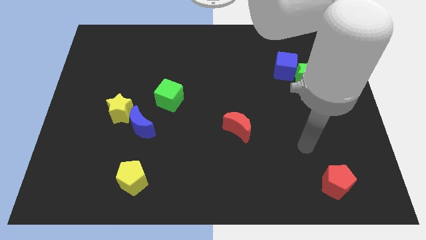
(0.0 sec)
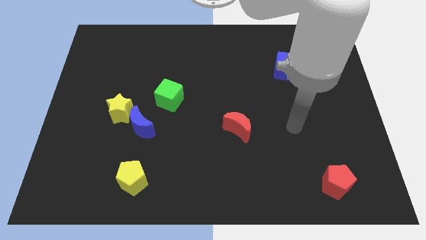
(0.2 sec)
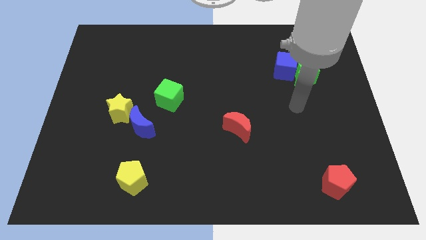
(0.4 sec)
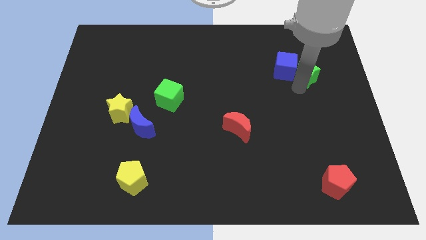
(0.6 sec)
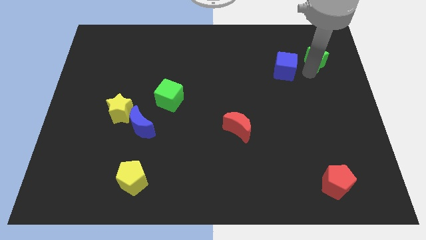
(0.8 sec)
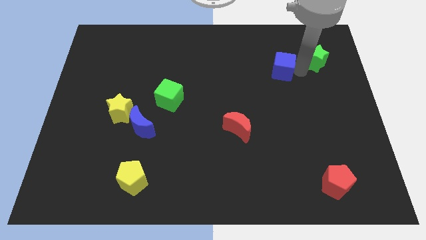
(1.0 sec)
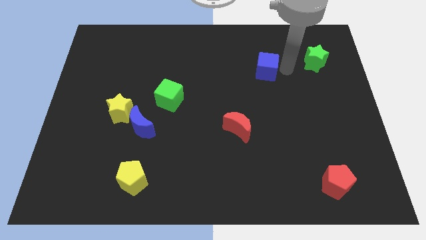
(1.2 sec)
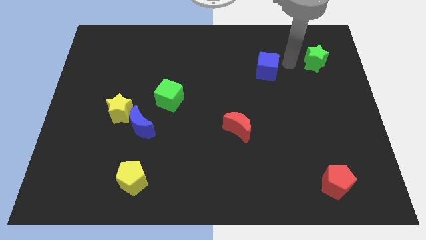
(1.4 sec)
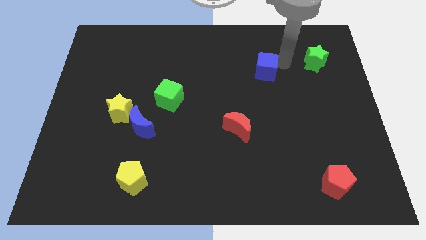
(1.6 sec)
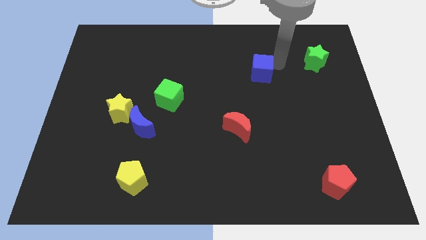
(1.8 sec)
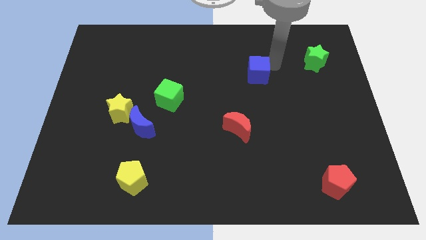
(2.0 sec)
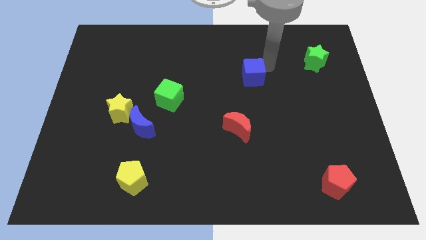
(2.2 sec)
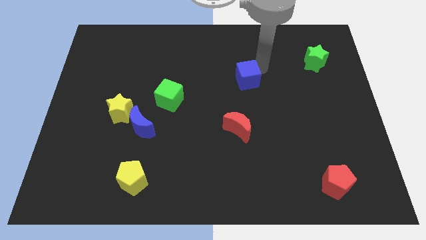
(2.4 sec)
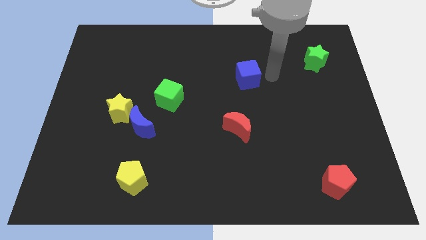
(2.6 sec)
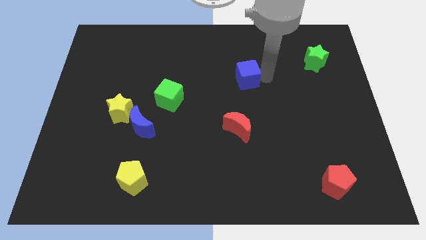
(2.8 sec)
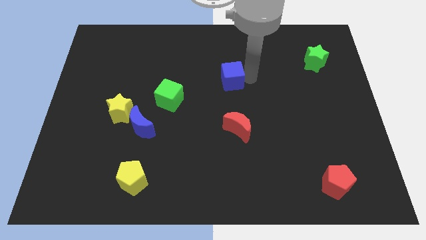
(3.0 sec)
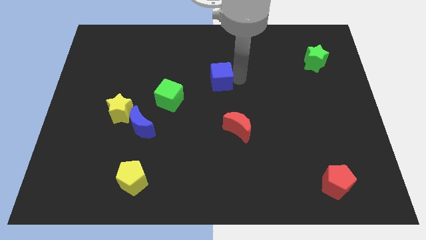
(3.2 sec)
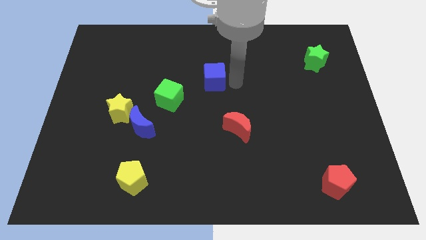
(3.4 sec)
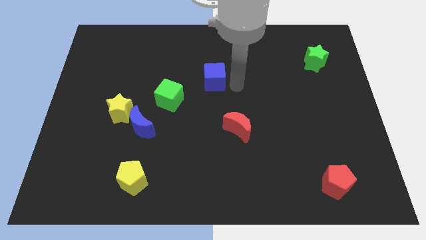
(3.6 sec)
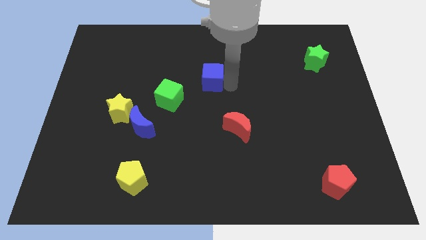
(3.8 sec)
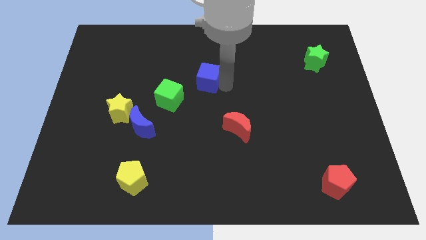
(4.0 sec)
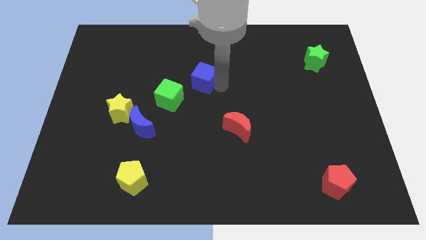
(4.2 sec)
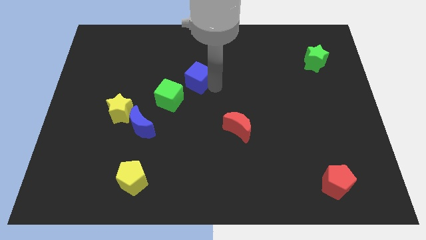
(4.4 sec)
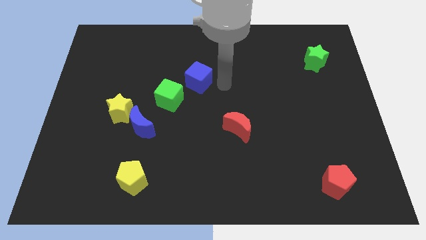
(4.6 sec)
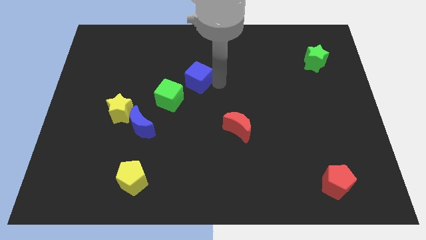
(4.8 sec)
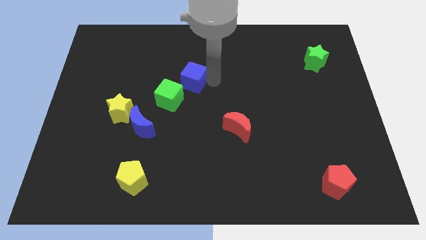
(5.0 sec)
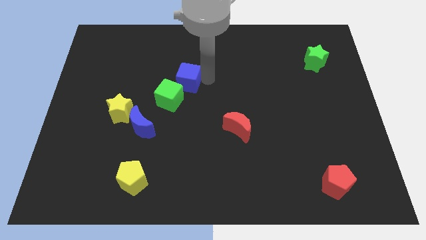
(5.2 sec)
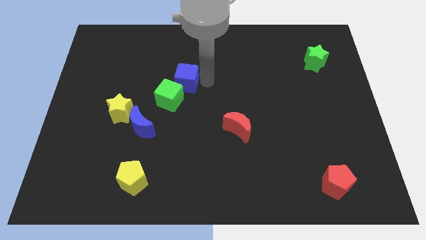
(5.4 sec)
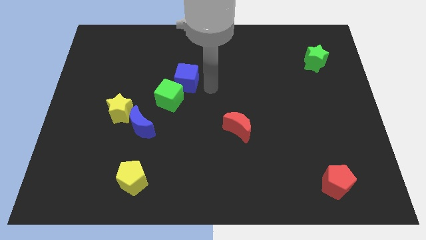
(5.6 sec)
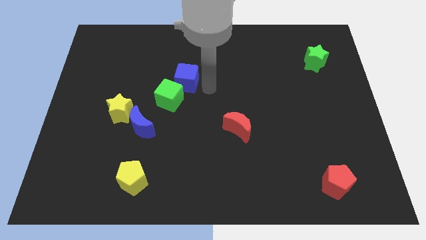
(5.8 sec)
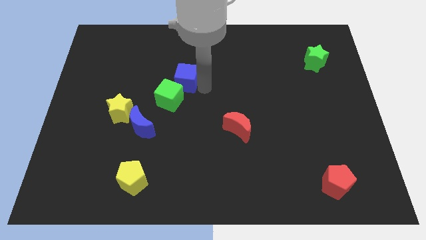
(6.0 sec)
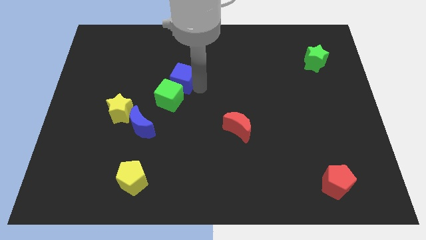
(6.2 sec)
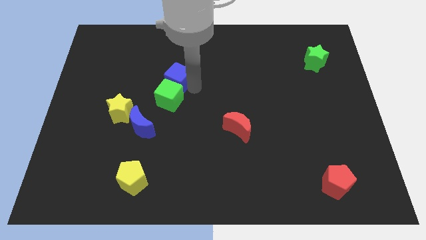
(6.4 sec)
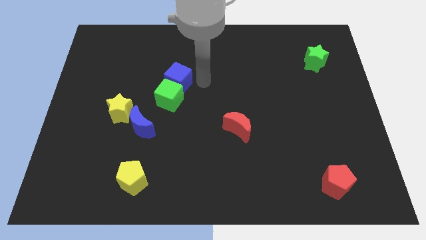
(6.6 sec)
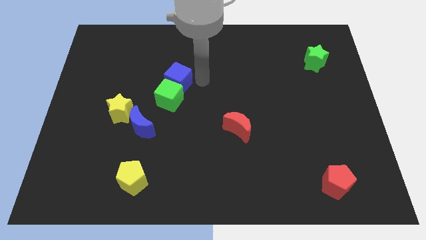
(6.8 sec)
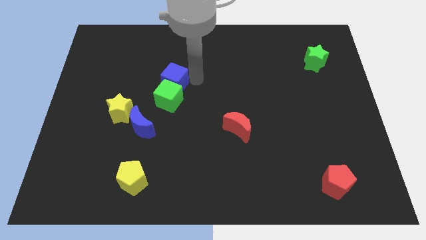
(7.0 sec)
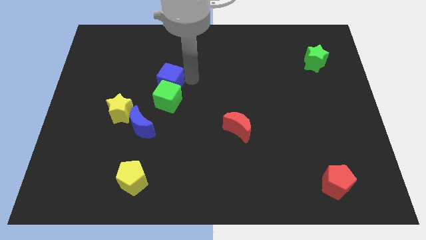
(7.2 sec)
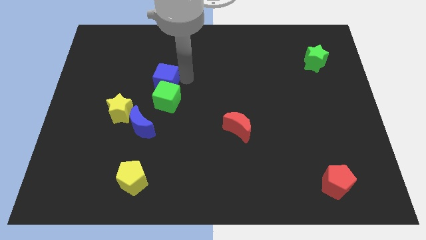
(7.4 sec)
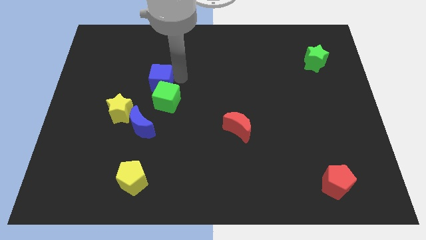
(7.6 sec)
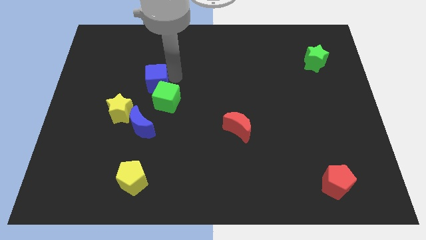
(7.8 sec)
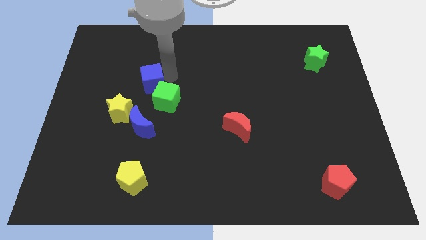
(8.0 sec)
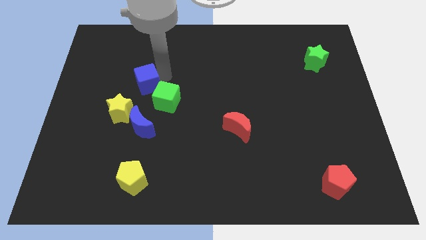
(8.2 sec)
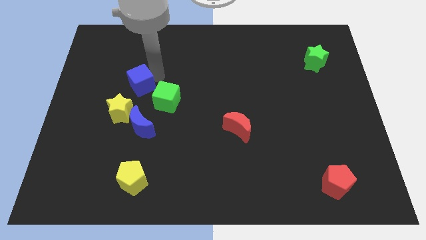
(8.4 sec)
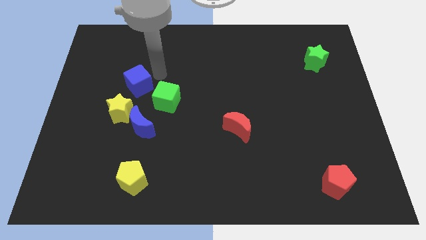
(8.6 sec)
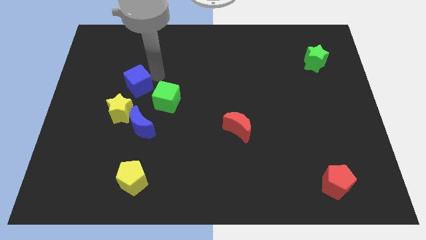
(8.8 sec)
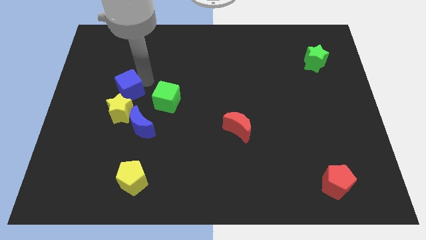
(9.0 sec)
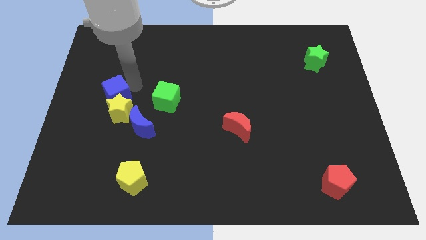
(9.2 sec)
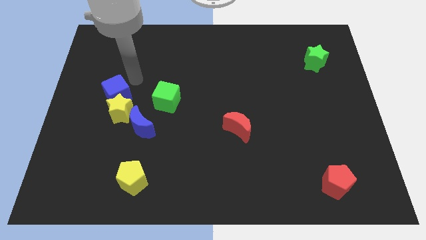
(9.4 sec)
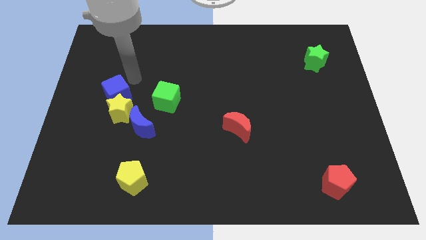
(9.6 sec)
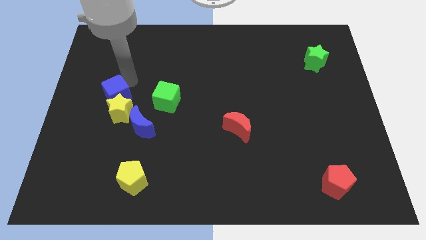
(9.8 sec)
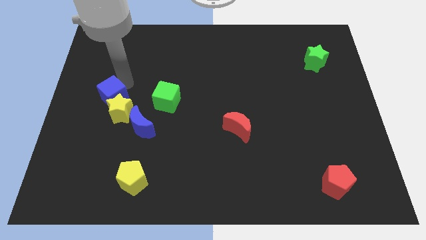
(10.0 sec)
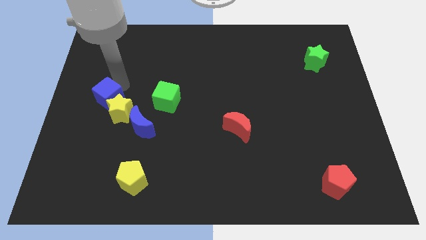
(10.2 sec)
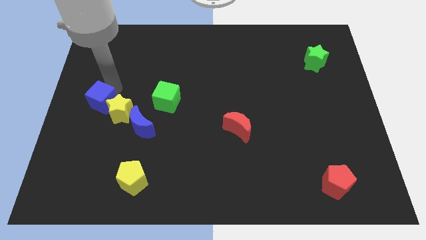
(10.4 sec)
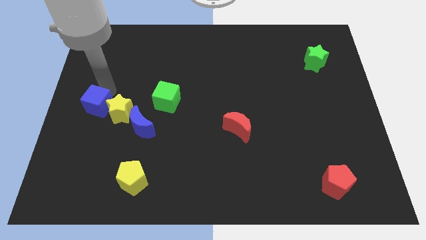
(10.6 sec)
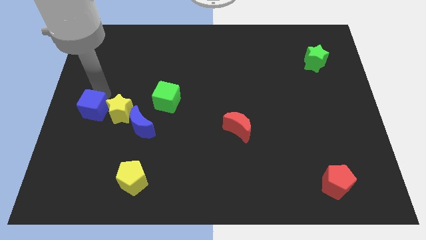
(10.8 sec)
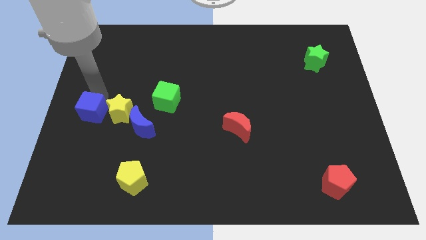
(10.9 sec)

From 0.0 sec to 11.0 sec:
put the blue cube just left of the blue moon

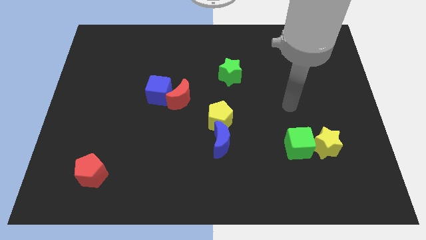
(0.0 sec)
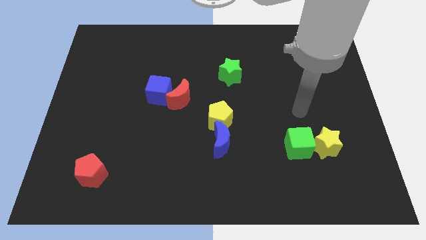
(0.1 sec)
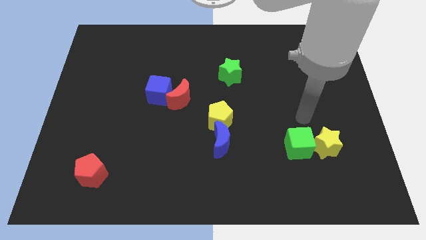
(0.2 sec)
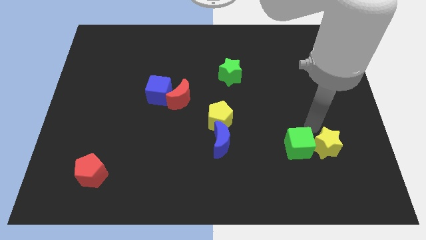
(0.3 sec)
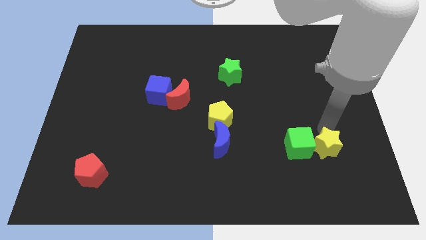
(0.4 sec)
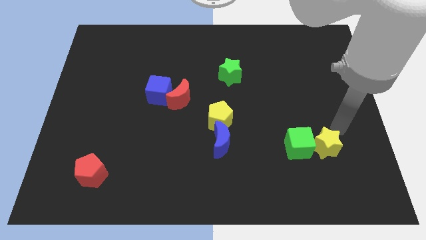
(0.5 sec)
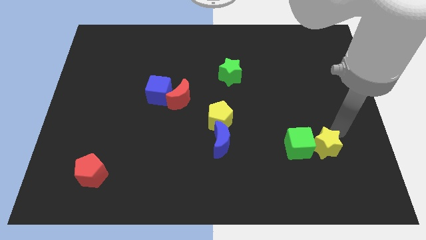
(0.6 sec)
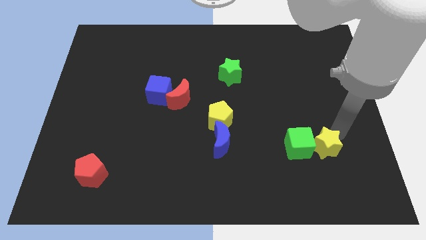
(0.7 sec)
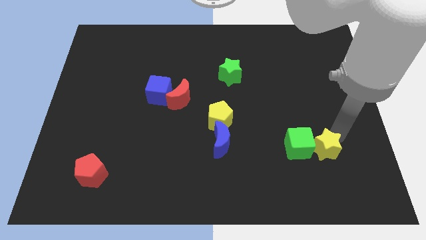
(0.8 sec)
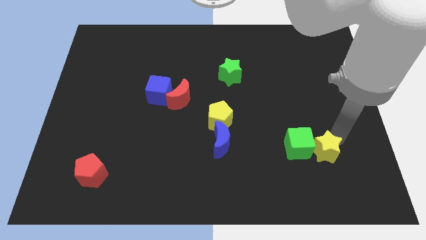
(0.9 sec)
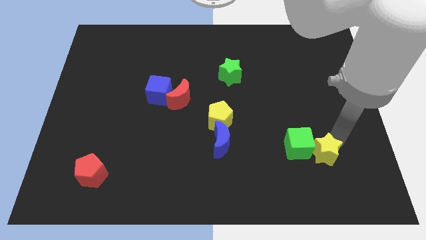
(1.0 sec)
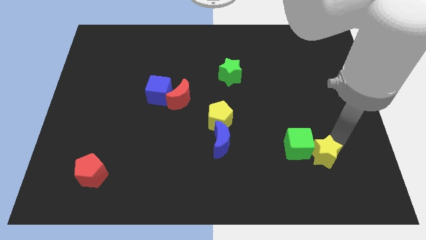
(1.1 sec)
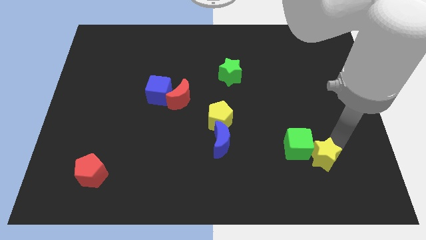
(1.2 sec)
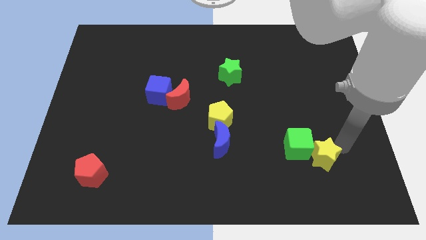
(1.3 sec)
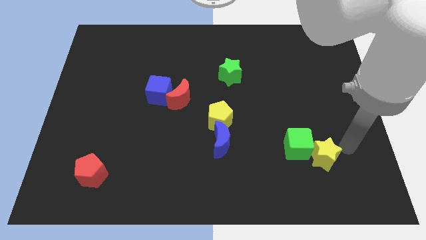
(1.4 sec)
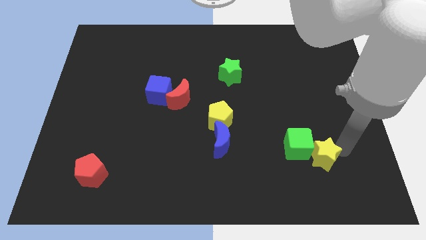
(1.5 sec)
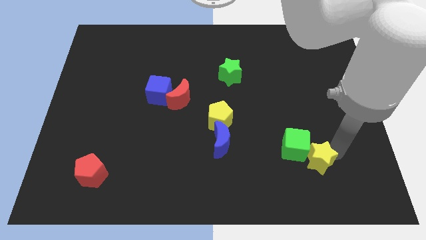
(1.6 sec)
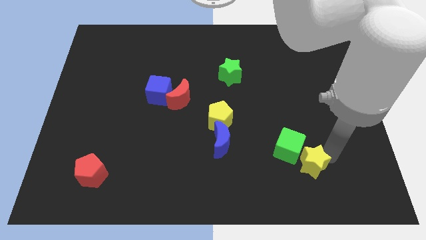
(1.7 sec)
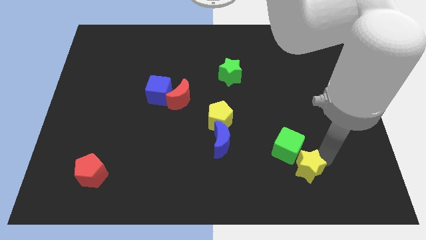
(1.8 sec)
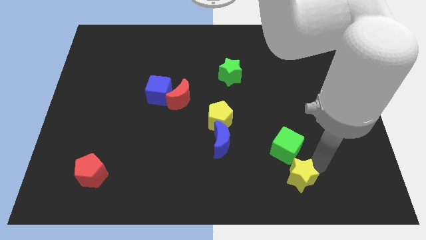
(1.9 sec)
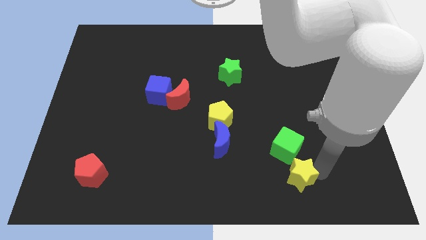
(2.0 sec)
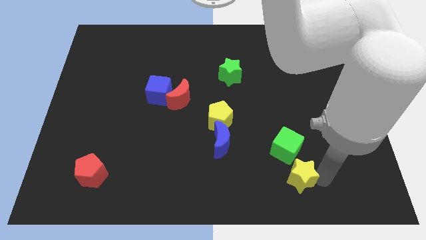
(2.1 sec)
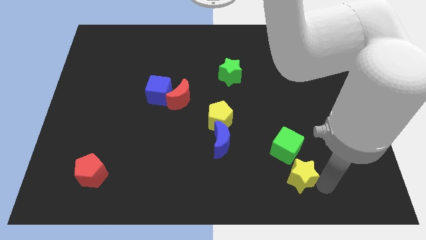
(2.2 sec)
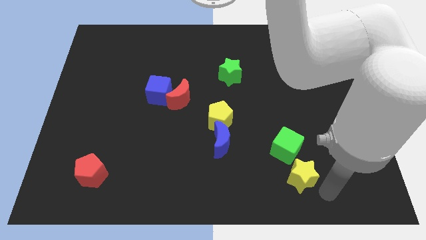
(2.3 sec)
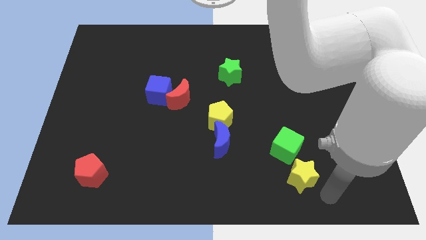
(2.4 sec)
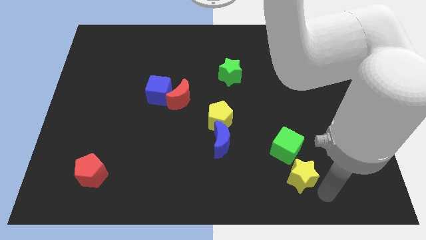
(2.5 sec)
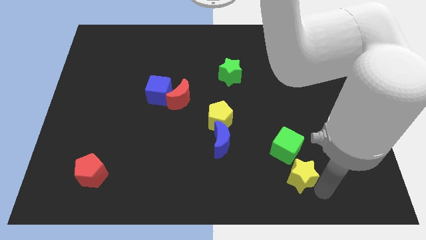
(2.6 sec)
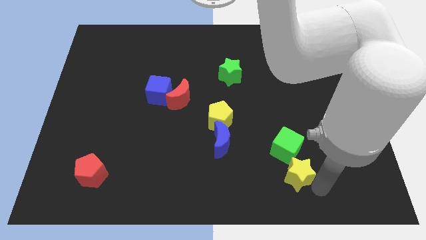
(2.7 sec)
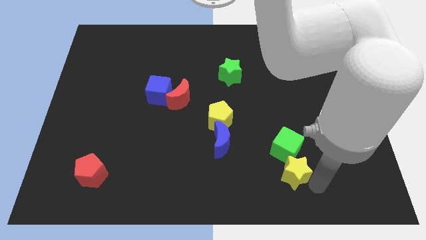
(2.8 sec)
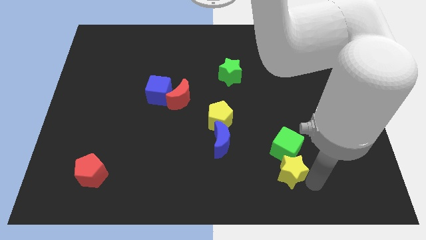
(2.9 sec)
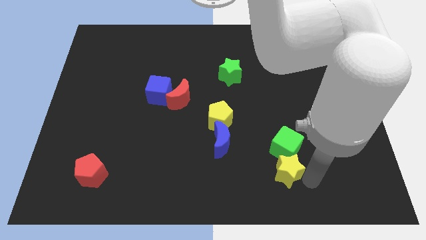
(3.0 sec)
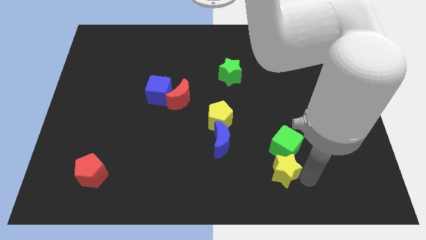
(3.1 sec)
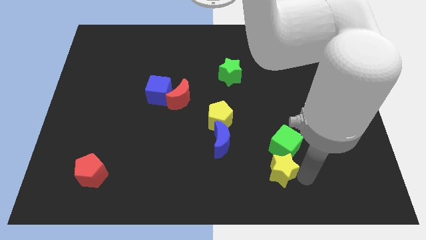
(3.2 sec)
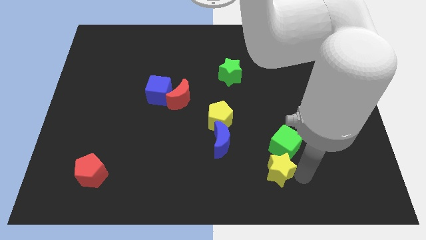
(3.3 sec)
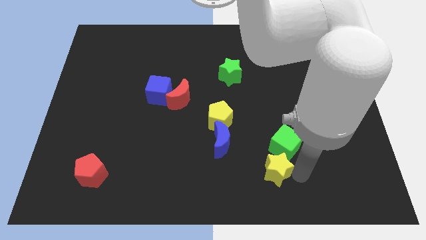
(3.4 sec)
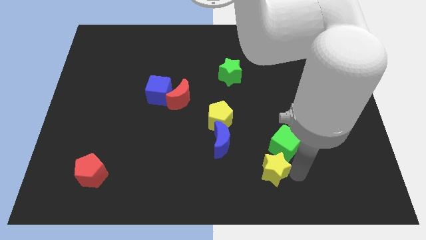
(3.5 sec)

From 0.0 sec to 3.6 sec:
put the yellow star diagonally down and to the right of the blue moon
